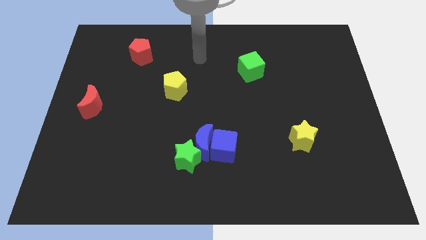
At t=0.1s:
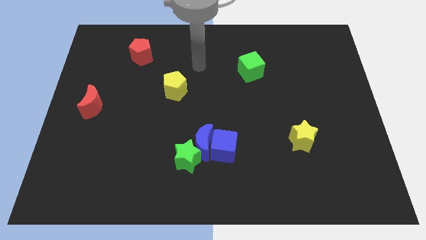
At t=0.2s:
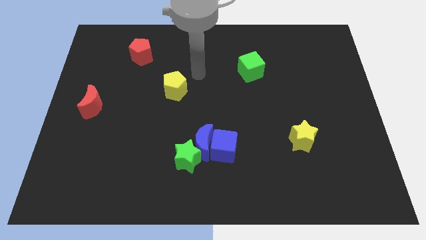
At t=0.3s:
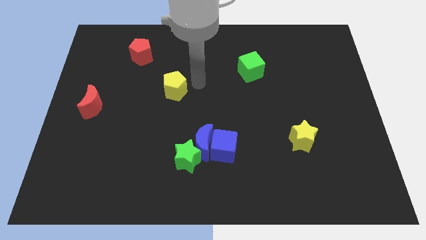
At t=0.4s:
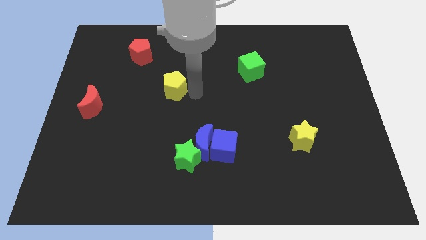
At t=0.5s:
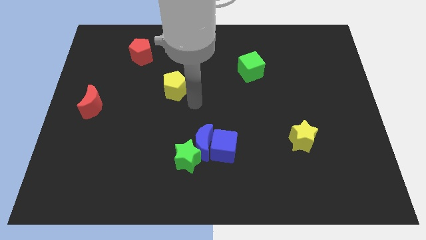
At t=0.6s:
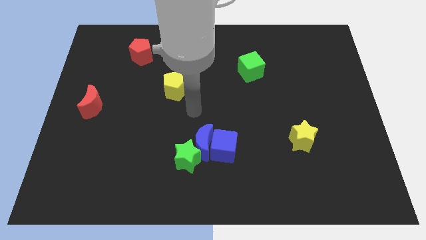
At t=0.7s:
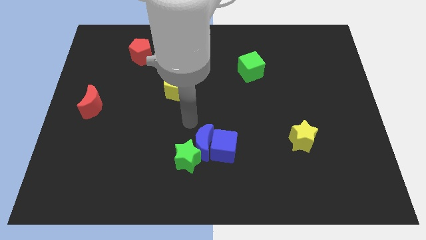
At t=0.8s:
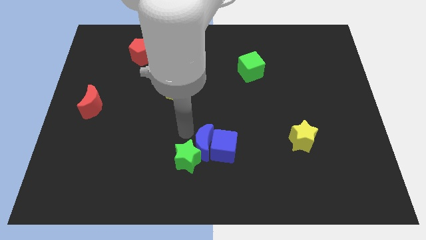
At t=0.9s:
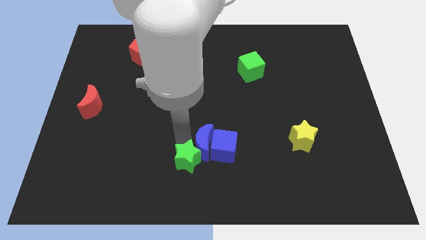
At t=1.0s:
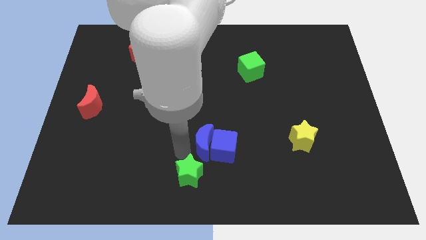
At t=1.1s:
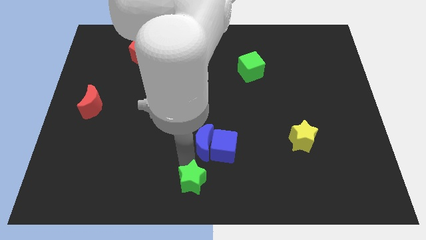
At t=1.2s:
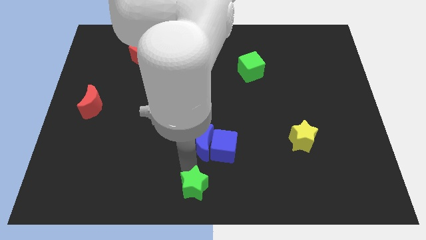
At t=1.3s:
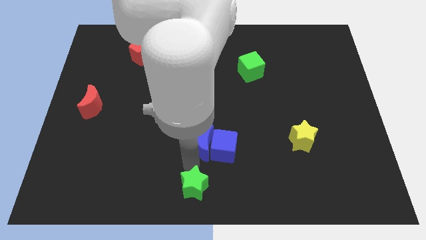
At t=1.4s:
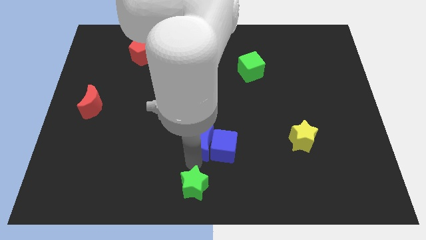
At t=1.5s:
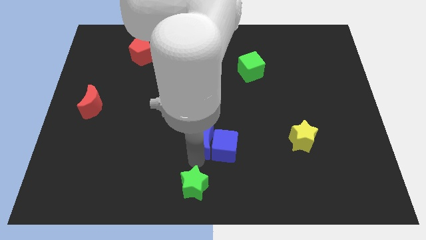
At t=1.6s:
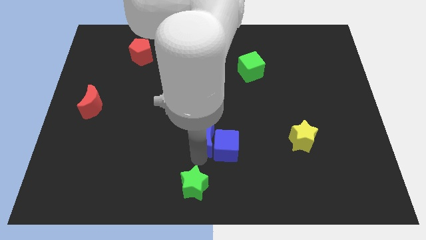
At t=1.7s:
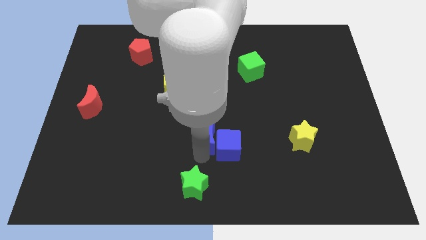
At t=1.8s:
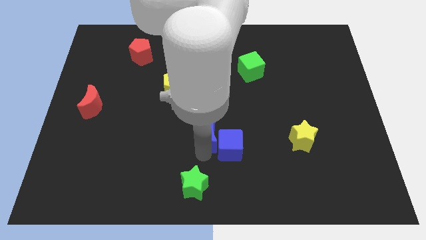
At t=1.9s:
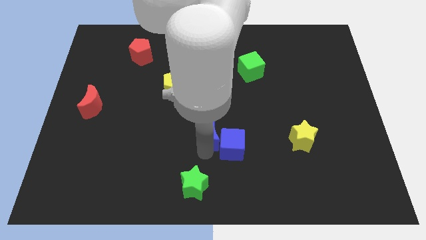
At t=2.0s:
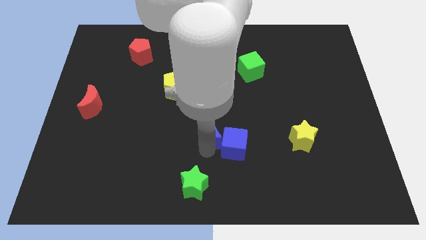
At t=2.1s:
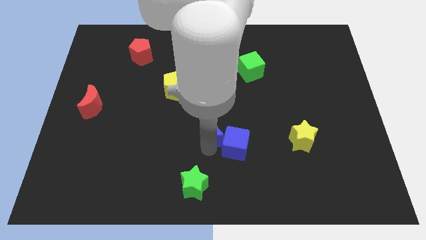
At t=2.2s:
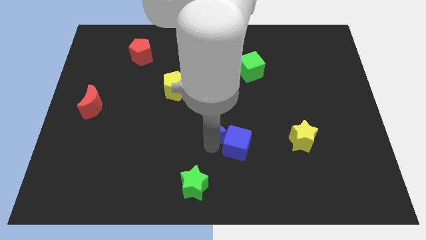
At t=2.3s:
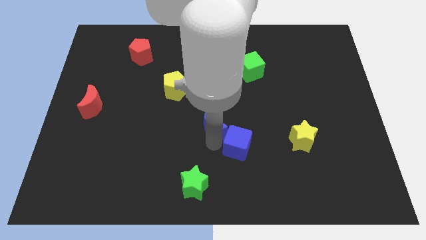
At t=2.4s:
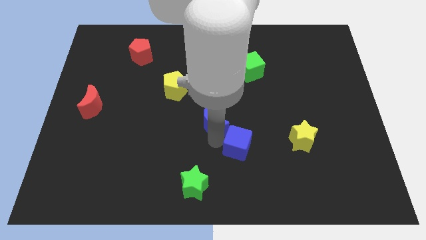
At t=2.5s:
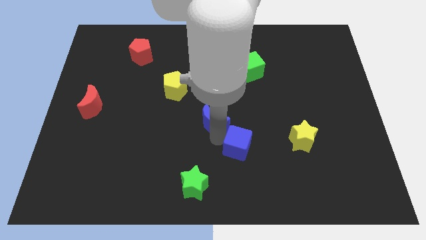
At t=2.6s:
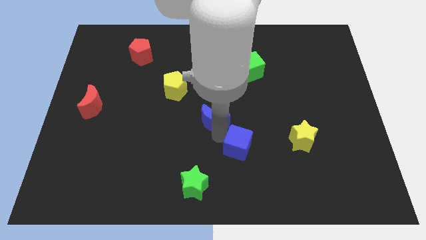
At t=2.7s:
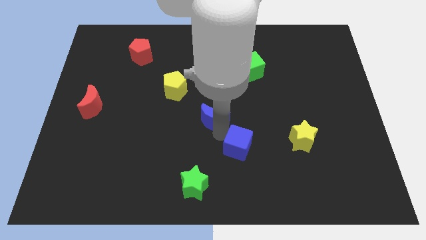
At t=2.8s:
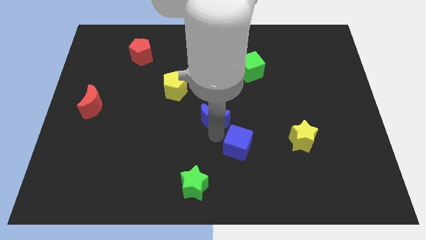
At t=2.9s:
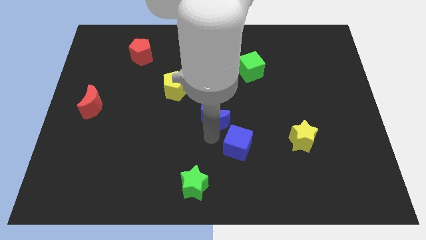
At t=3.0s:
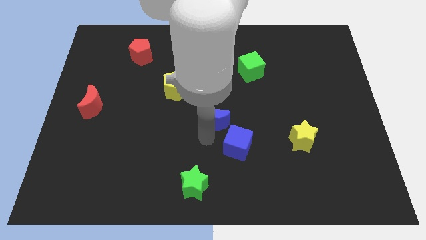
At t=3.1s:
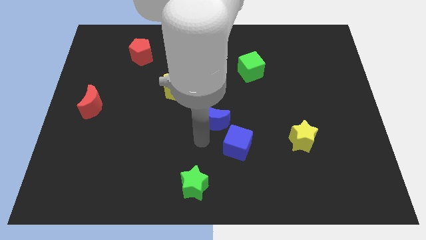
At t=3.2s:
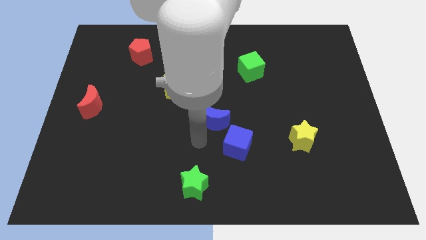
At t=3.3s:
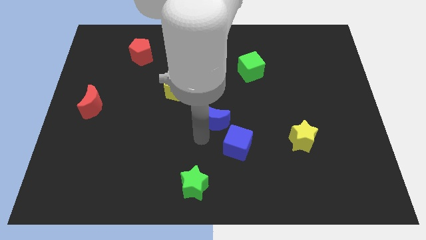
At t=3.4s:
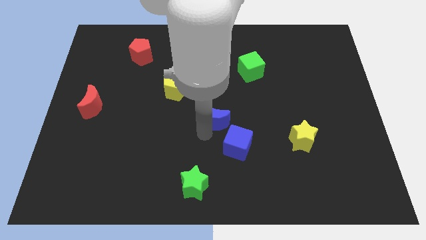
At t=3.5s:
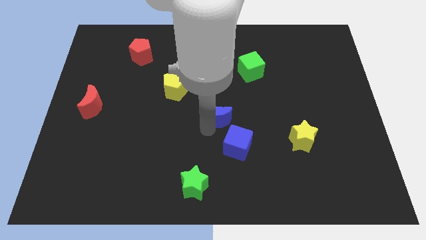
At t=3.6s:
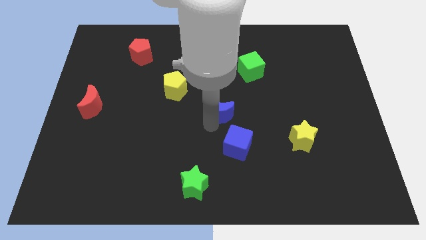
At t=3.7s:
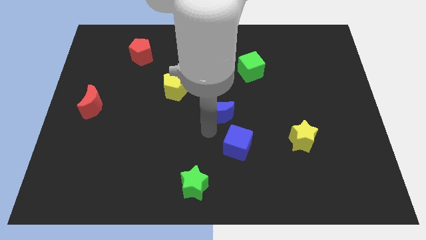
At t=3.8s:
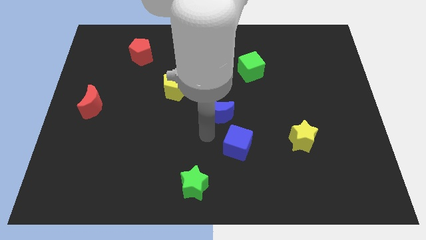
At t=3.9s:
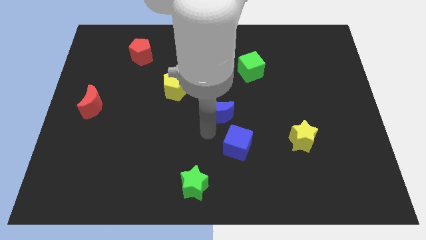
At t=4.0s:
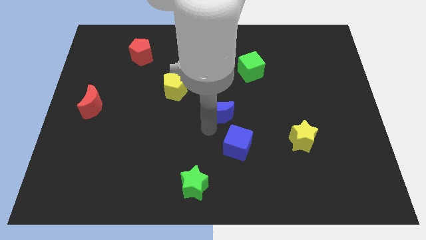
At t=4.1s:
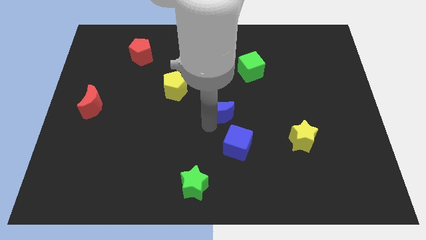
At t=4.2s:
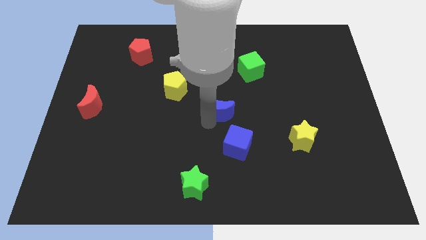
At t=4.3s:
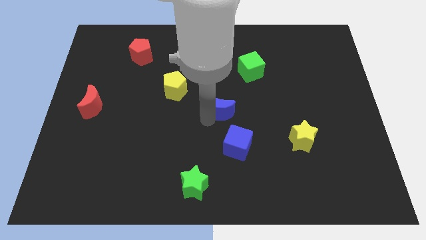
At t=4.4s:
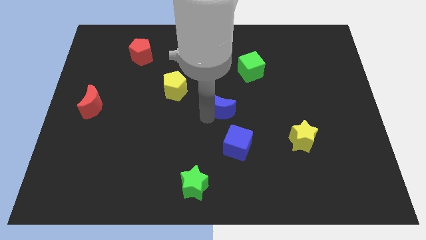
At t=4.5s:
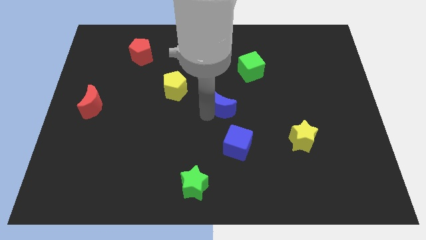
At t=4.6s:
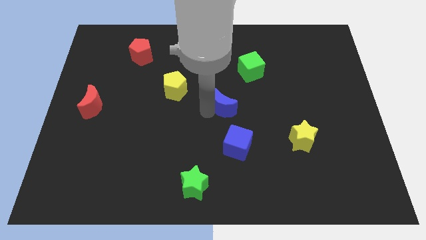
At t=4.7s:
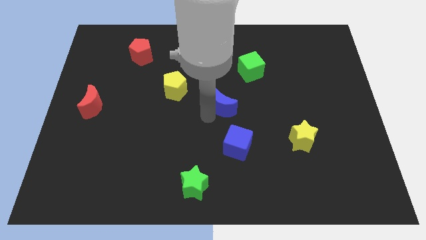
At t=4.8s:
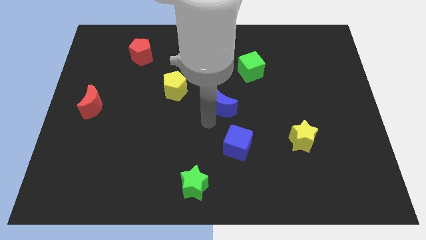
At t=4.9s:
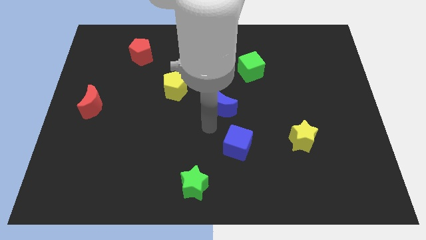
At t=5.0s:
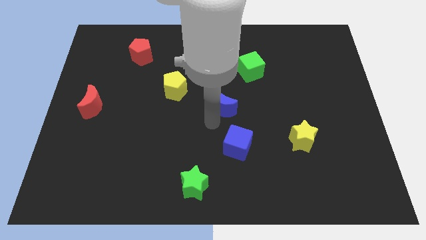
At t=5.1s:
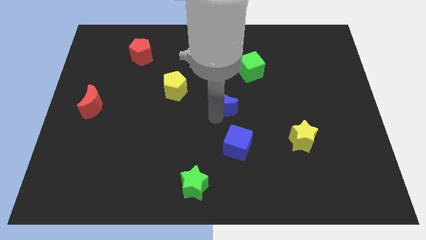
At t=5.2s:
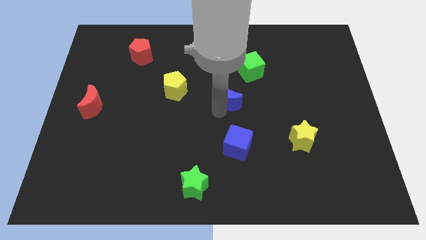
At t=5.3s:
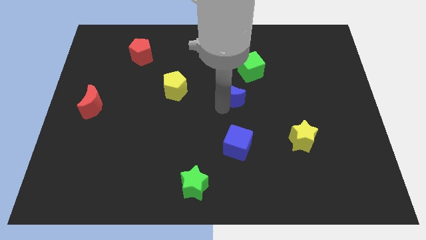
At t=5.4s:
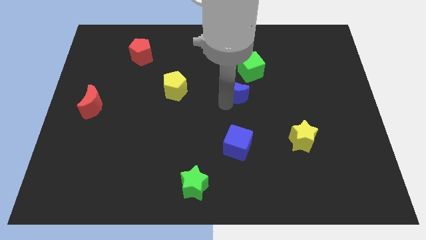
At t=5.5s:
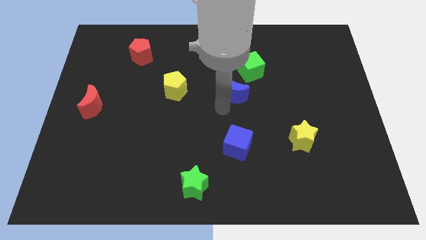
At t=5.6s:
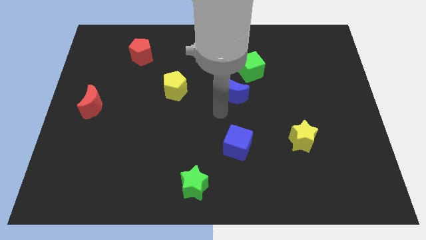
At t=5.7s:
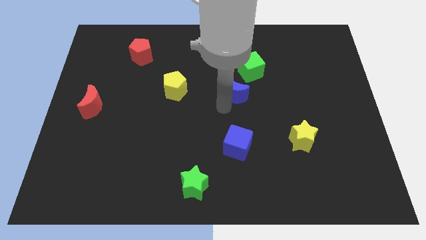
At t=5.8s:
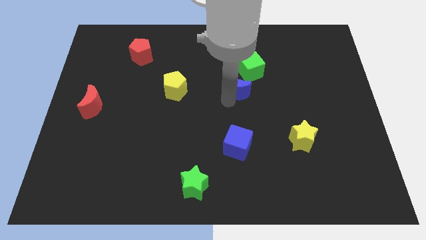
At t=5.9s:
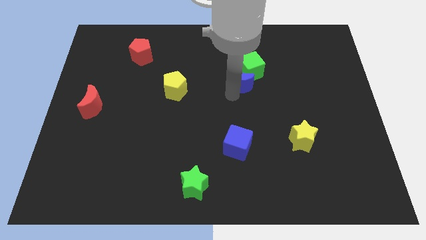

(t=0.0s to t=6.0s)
push the blue moon to the green cube

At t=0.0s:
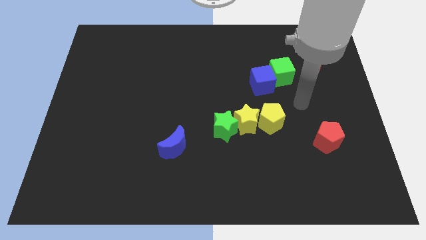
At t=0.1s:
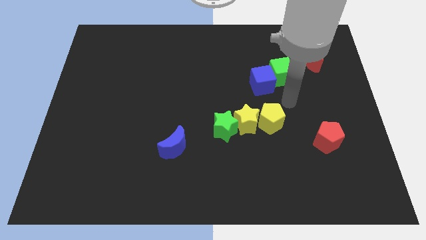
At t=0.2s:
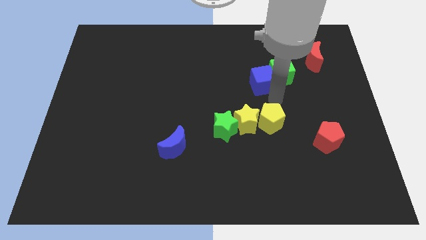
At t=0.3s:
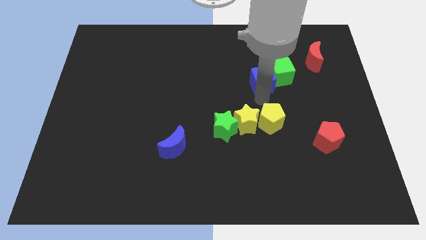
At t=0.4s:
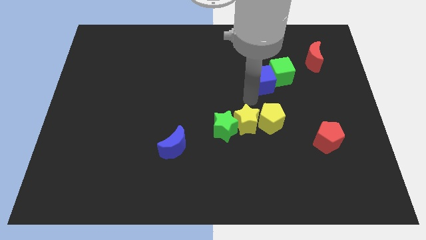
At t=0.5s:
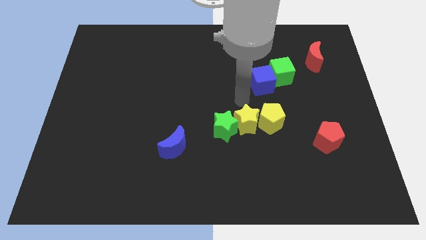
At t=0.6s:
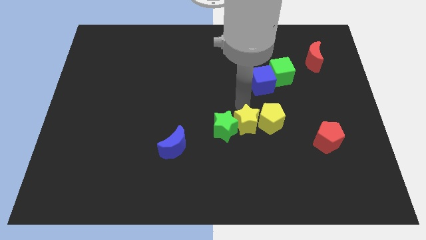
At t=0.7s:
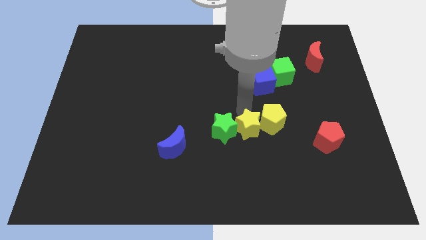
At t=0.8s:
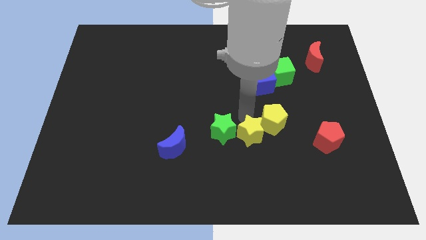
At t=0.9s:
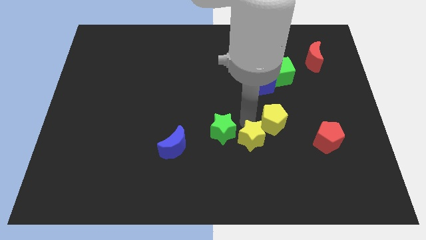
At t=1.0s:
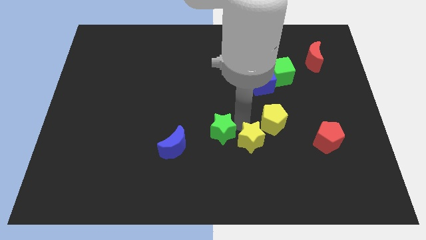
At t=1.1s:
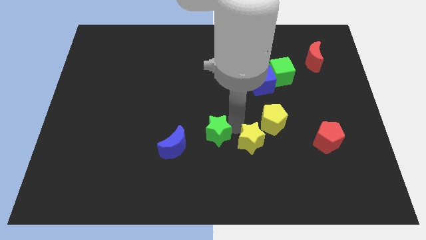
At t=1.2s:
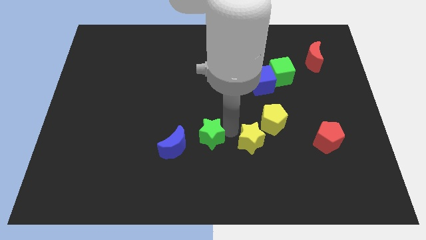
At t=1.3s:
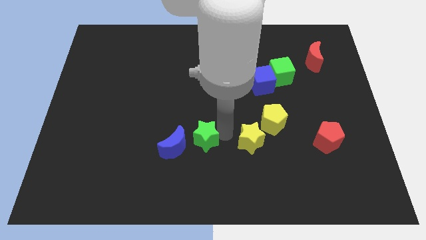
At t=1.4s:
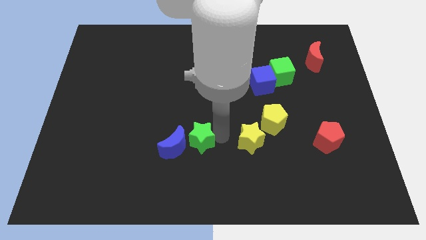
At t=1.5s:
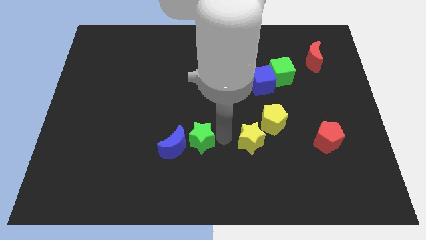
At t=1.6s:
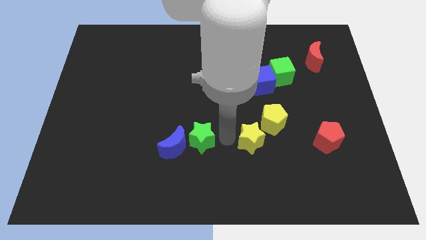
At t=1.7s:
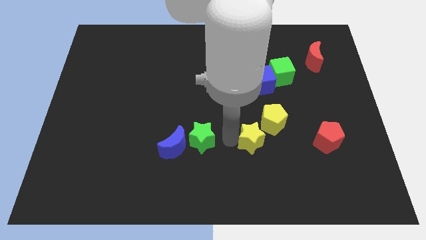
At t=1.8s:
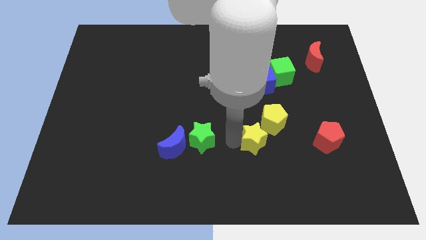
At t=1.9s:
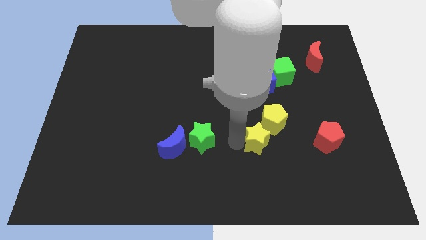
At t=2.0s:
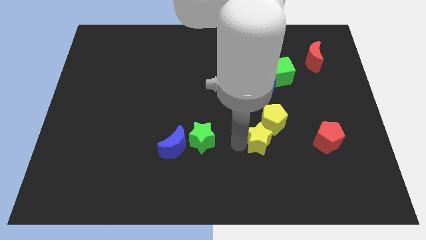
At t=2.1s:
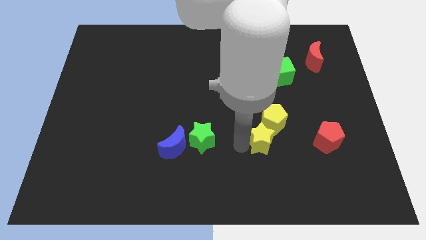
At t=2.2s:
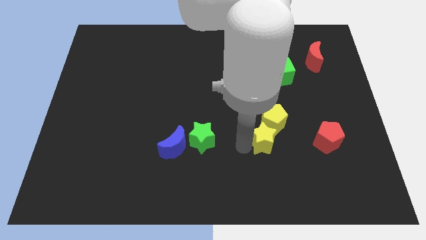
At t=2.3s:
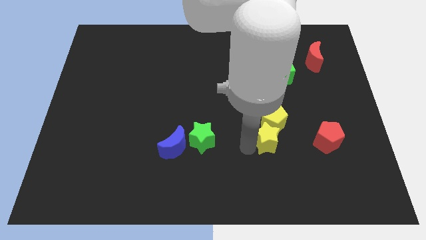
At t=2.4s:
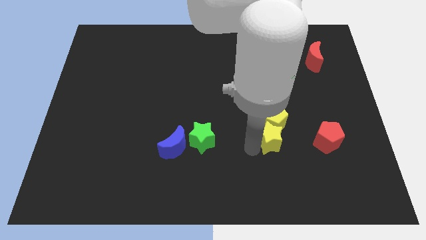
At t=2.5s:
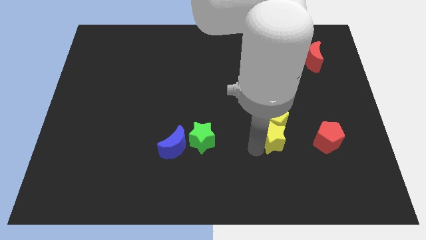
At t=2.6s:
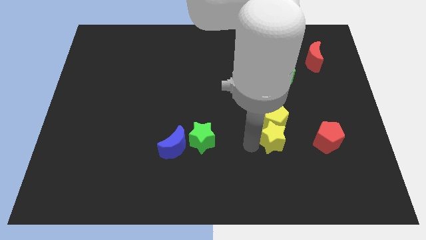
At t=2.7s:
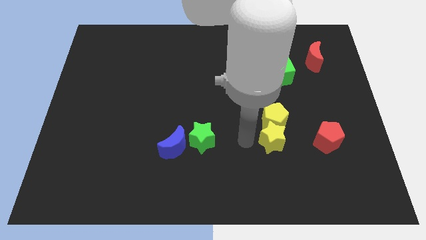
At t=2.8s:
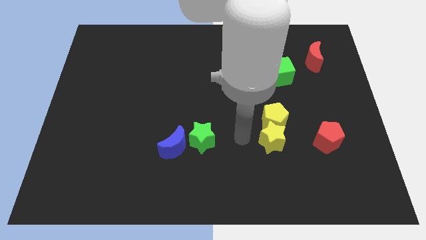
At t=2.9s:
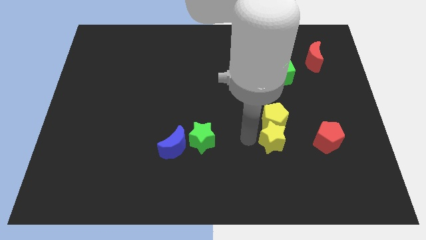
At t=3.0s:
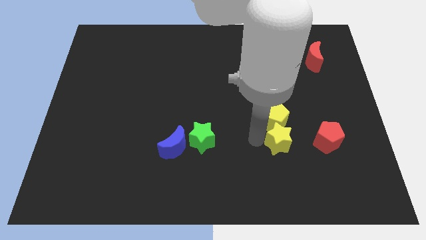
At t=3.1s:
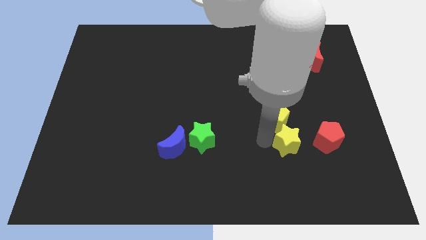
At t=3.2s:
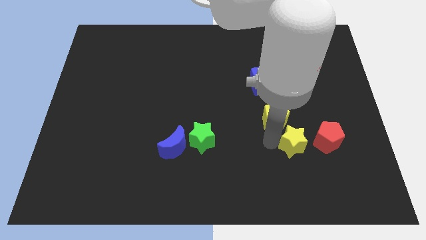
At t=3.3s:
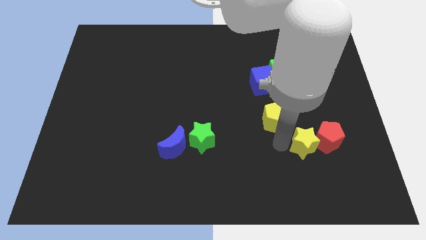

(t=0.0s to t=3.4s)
move the yellow star close to the red pentagon
